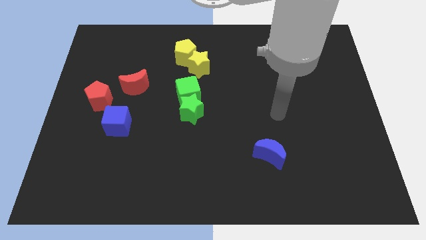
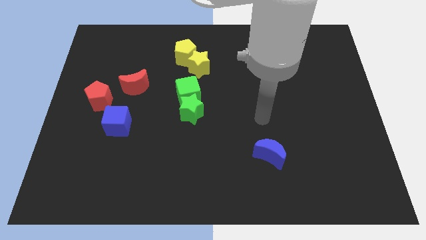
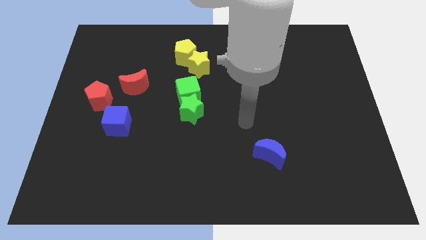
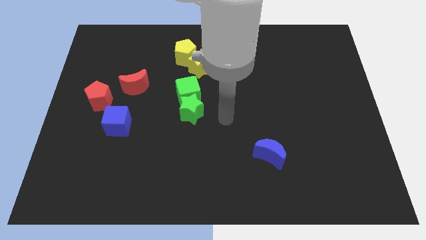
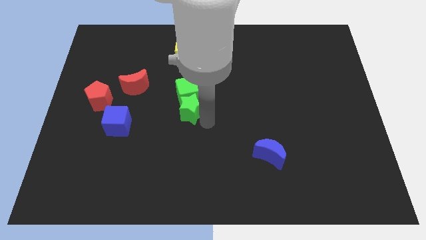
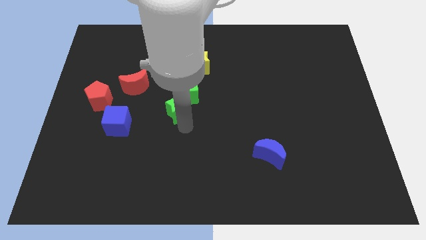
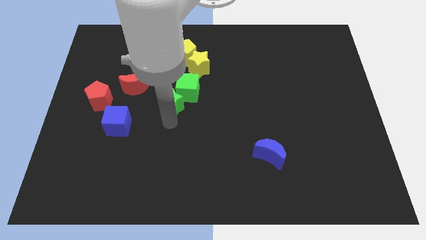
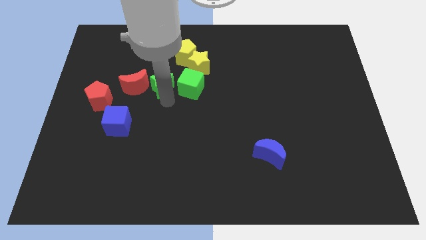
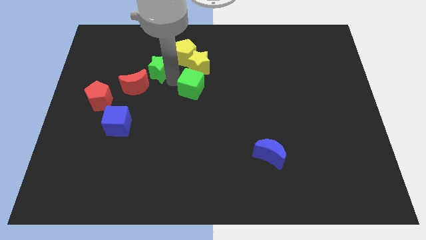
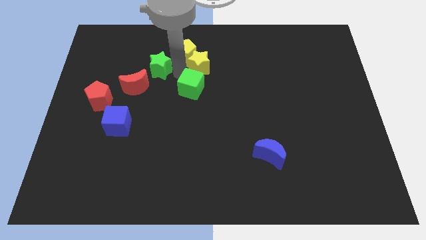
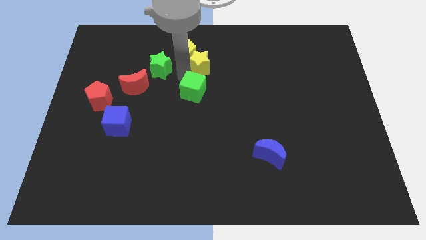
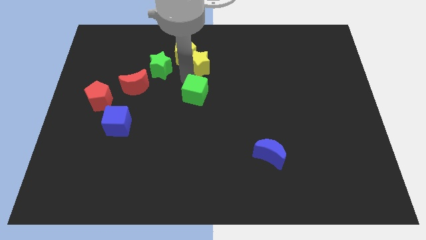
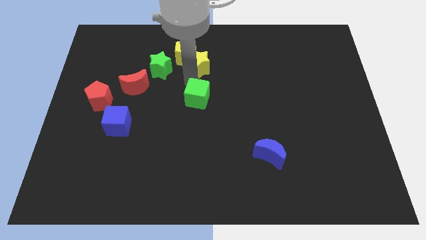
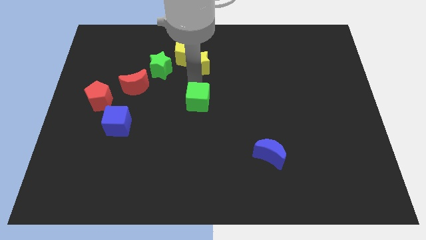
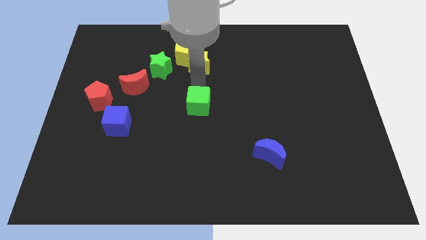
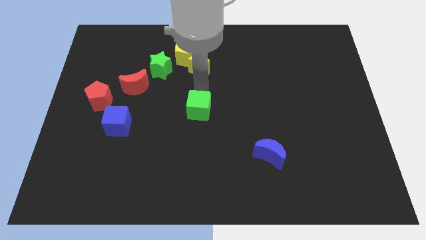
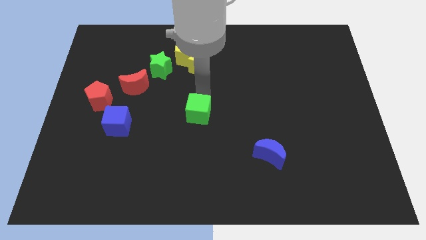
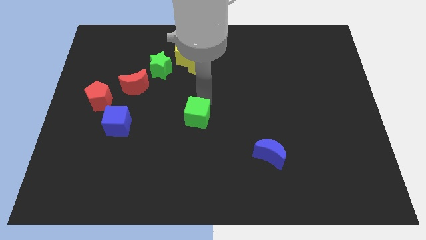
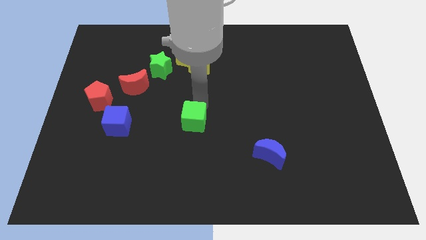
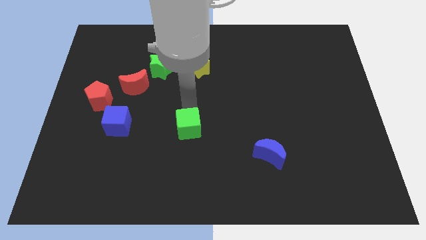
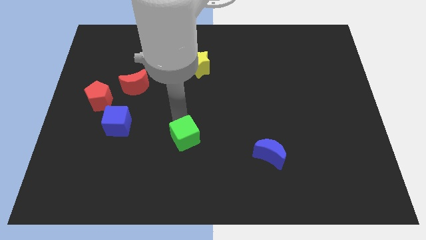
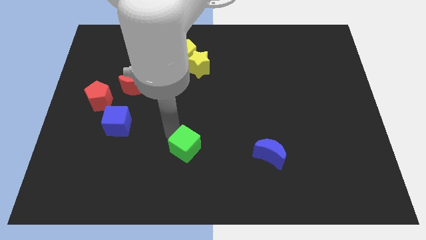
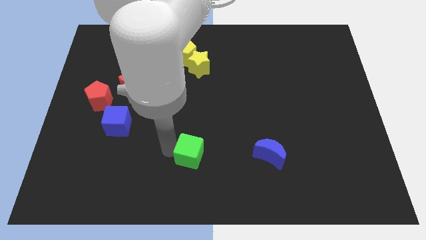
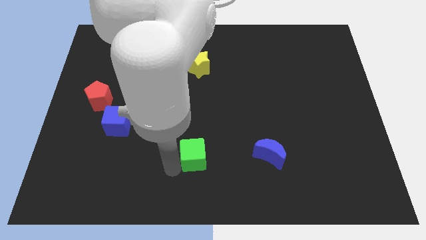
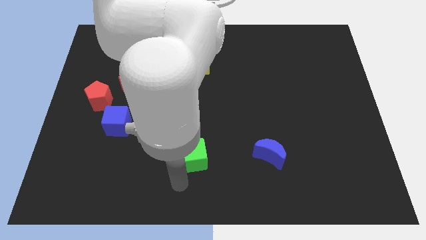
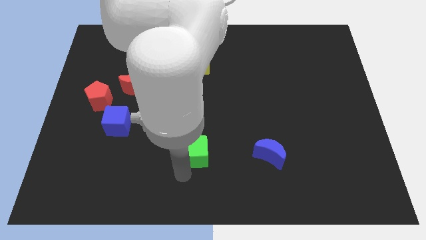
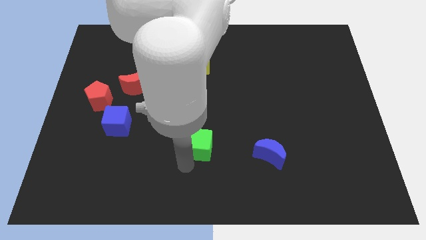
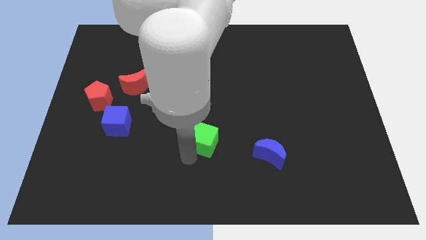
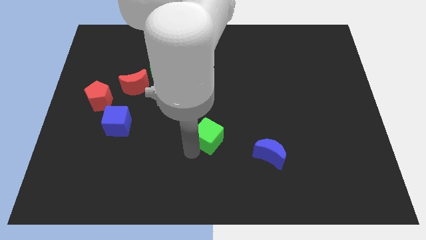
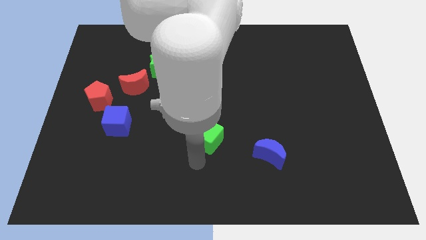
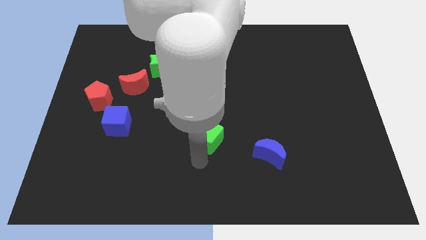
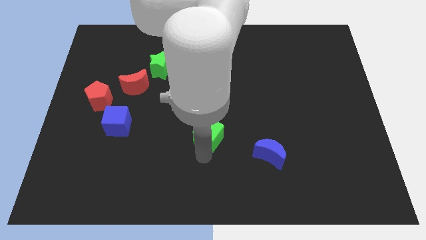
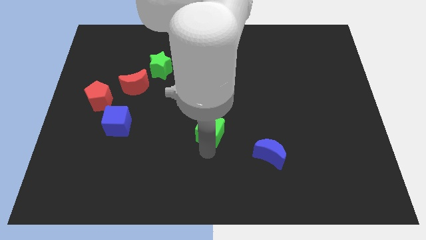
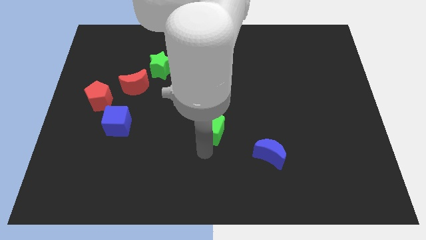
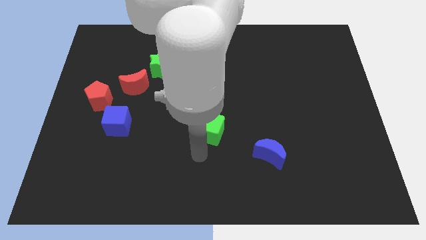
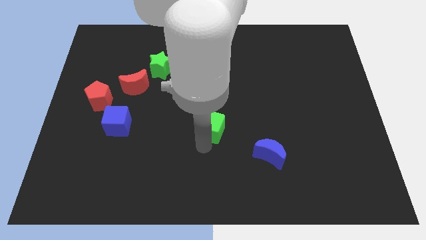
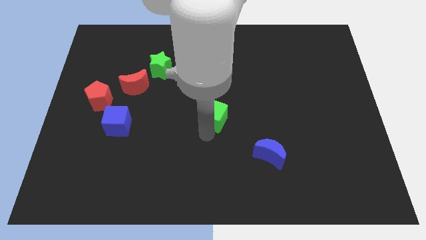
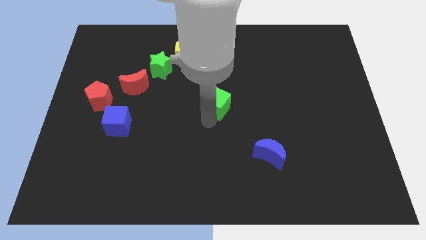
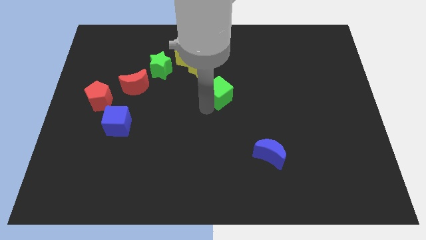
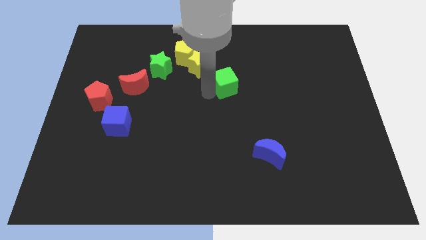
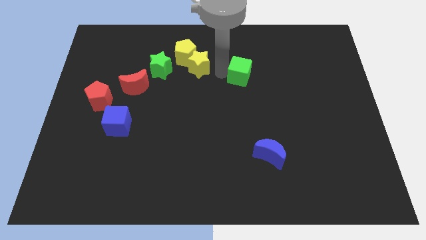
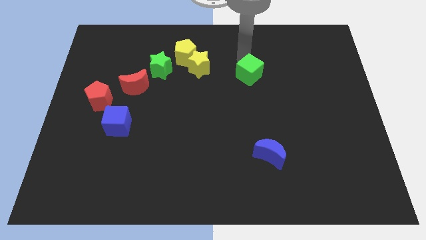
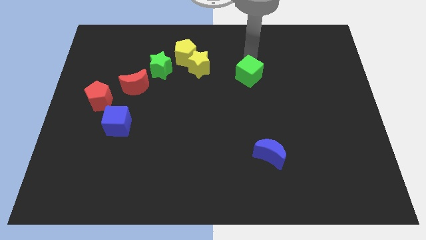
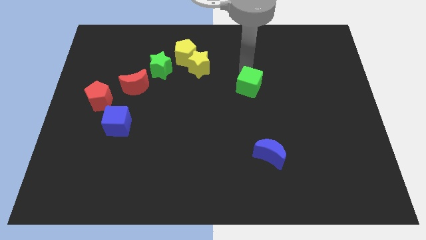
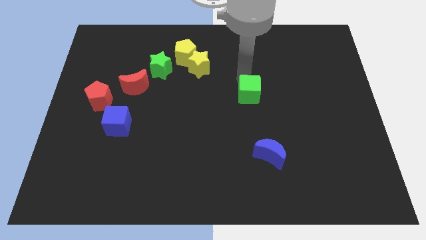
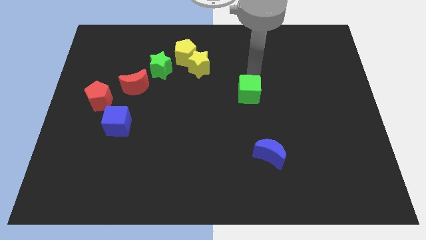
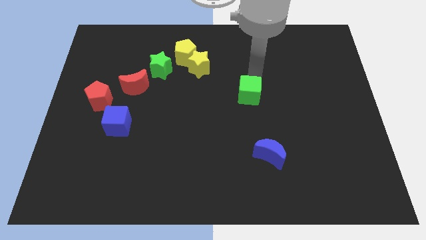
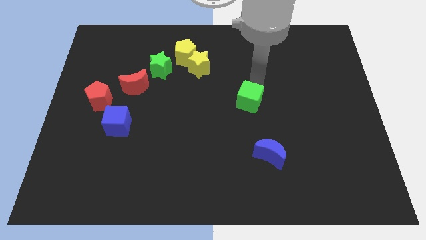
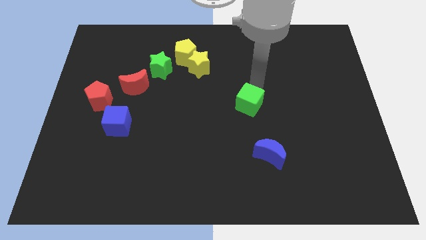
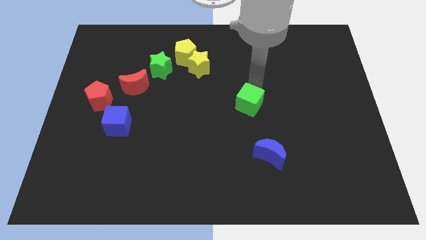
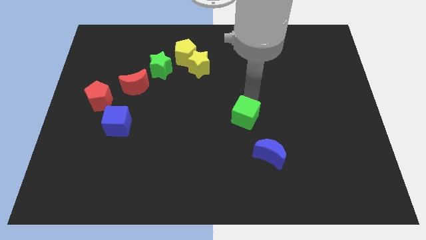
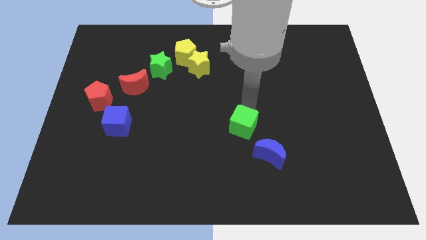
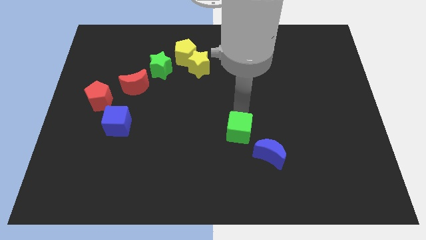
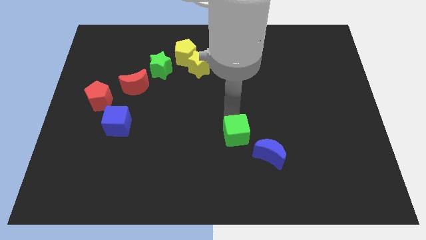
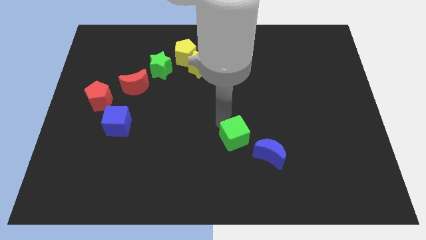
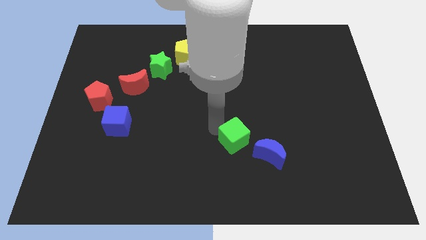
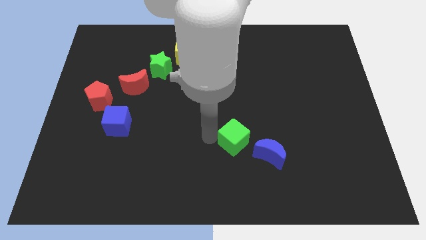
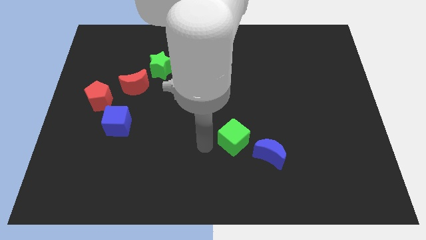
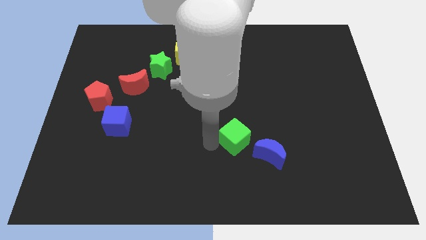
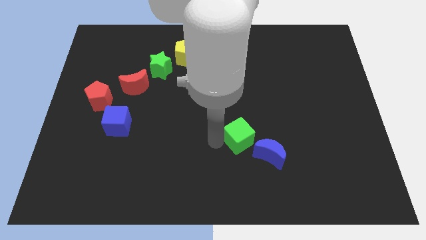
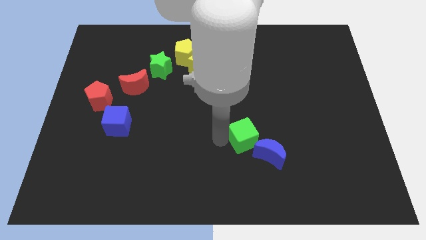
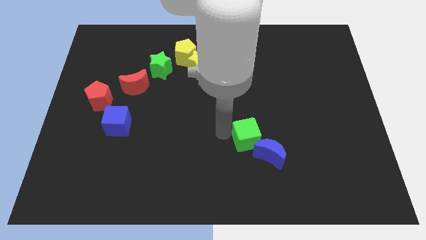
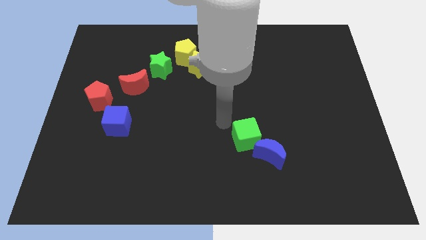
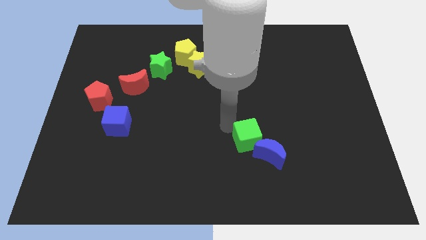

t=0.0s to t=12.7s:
slide the green cube close to the blue moon

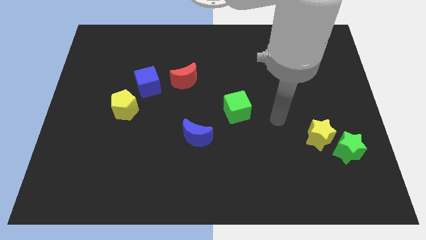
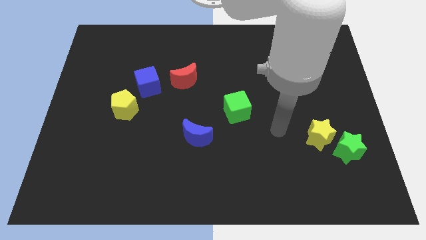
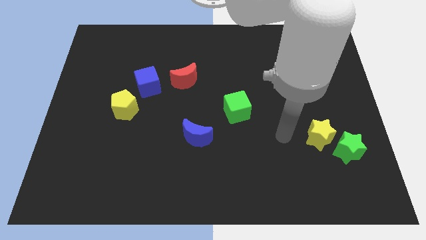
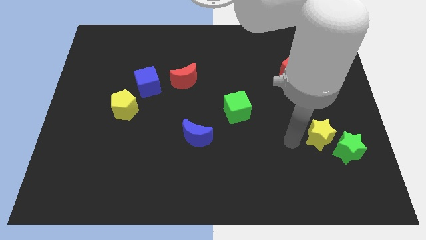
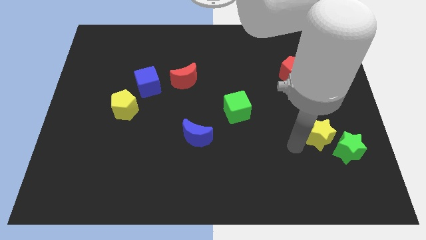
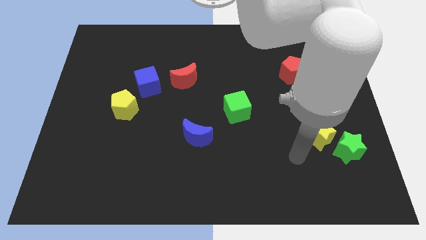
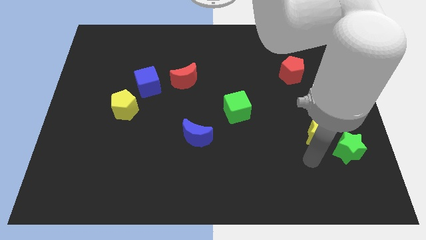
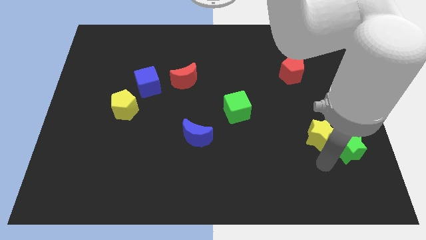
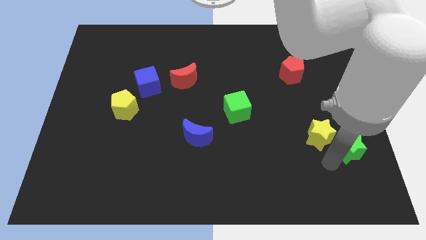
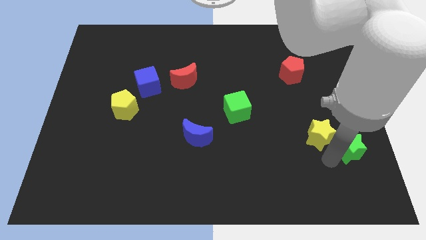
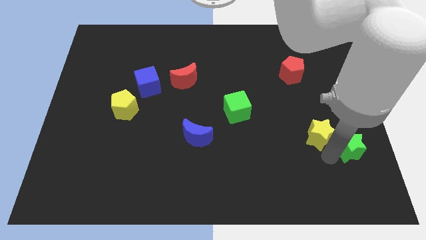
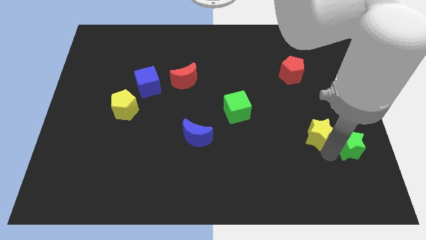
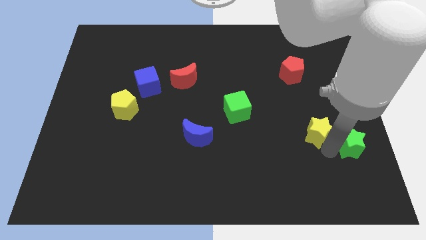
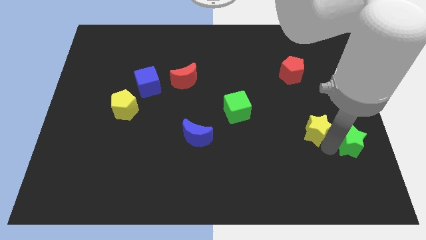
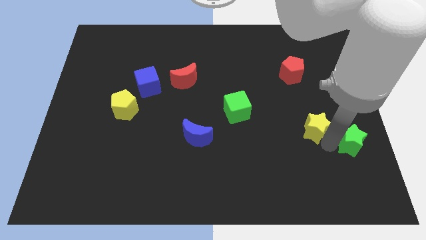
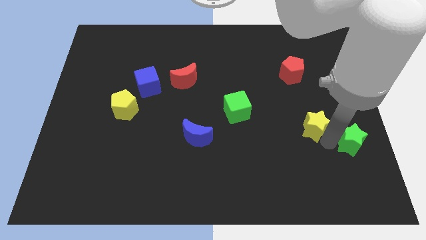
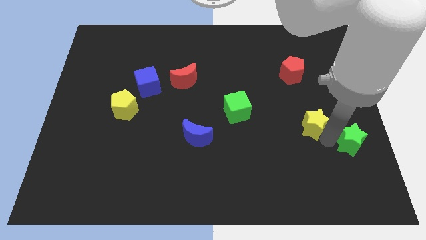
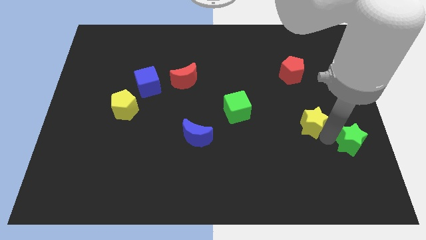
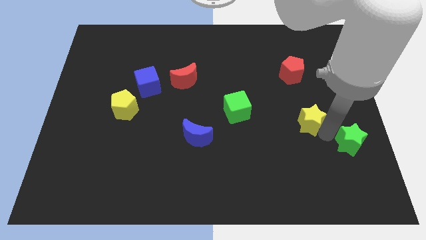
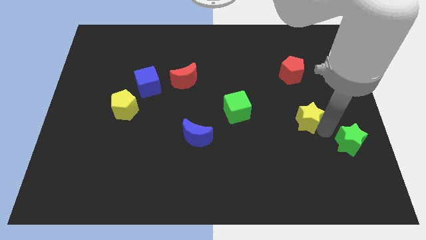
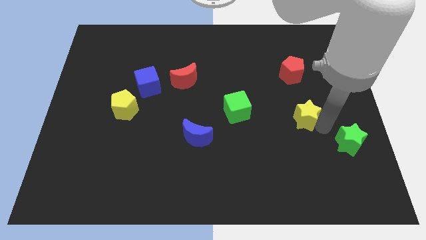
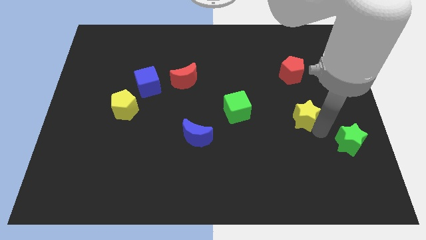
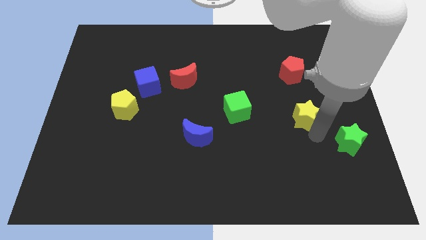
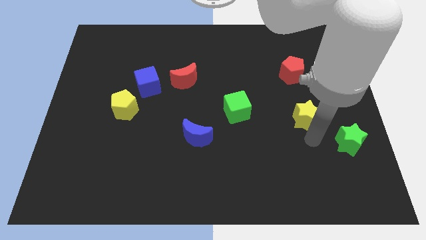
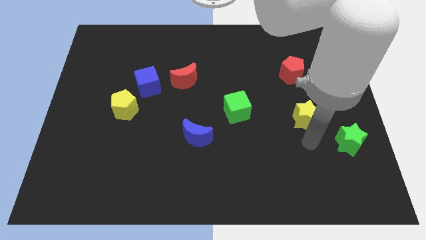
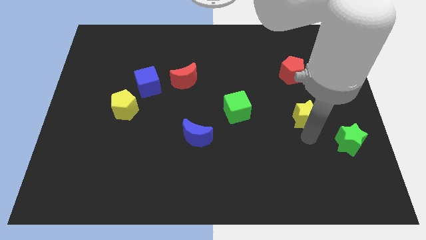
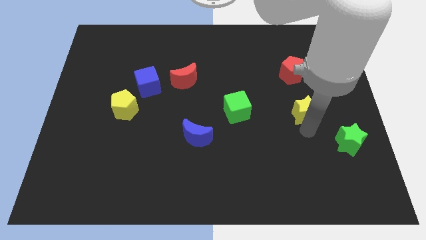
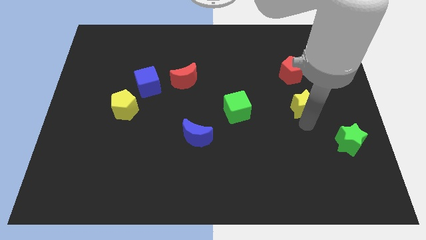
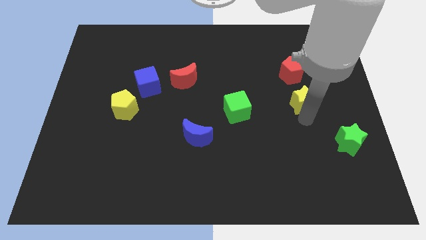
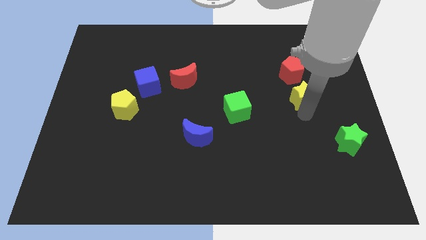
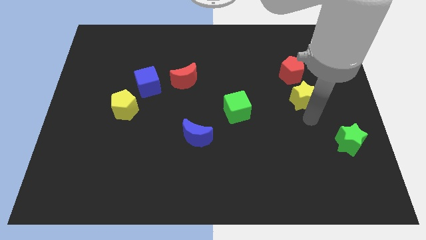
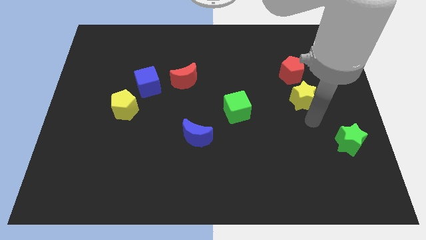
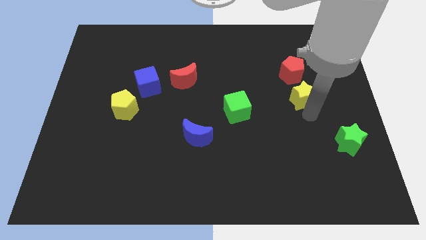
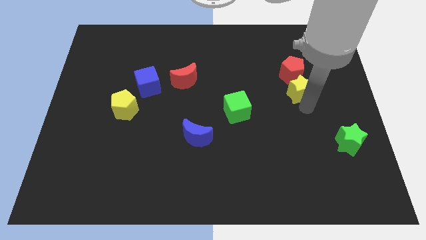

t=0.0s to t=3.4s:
move the yellow star close to the red pentagon
